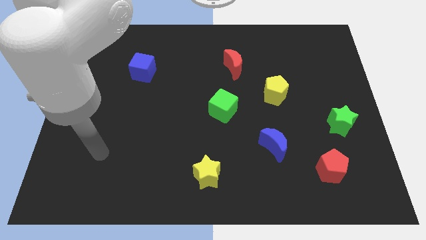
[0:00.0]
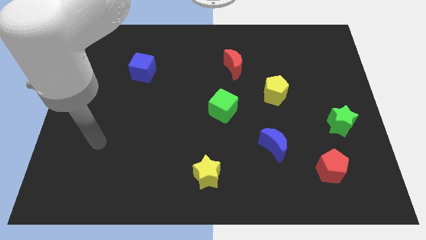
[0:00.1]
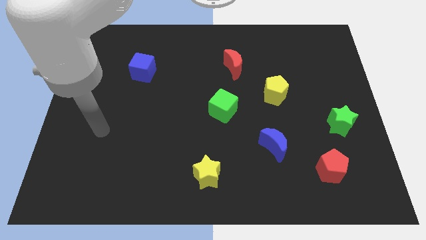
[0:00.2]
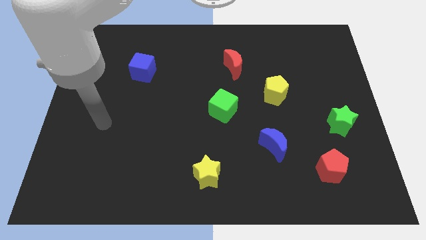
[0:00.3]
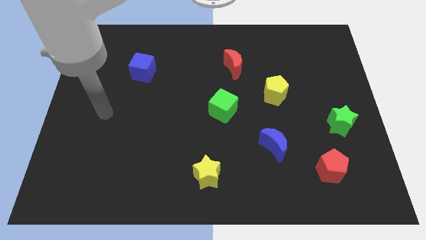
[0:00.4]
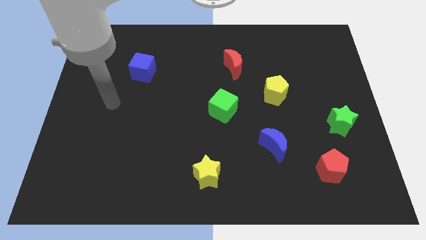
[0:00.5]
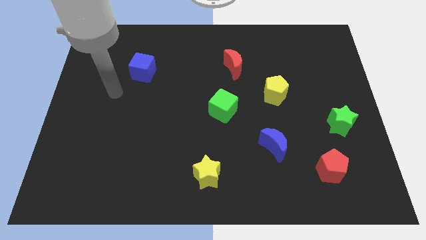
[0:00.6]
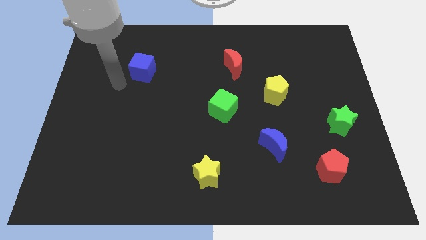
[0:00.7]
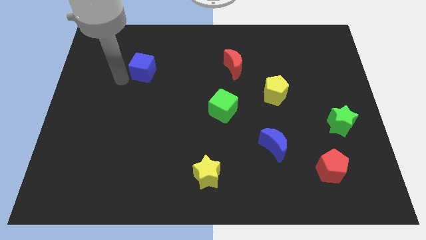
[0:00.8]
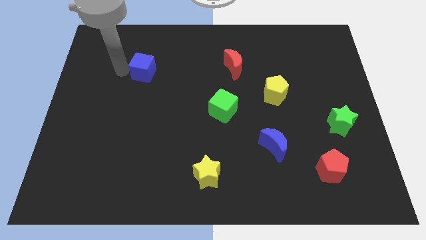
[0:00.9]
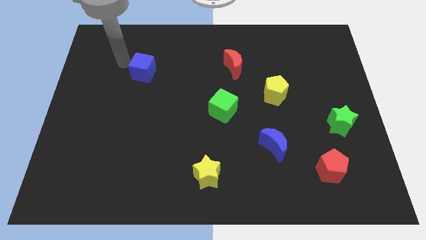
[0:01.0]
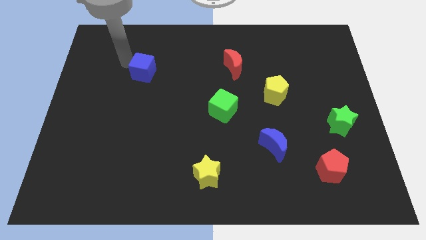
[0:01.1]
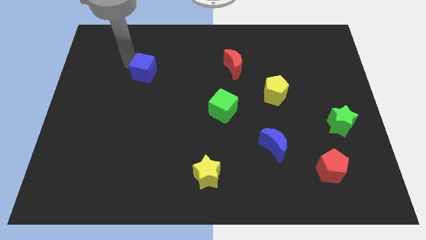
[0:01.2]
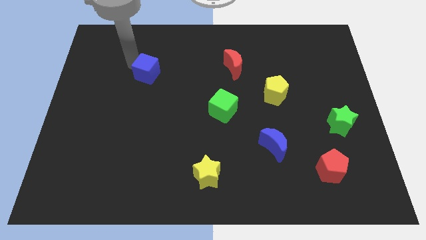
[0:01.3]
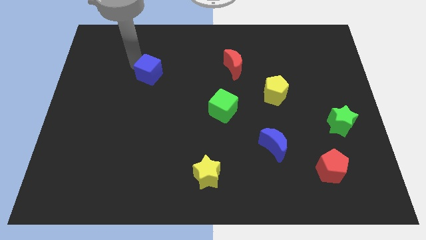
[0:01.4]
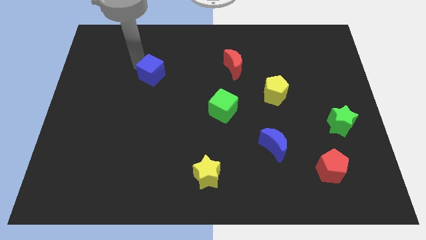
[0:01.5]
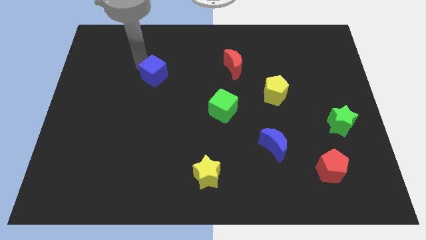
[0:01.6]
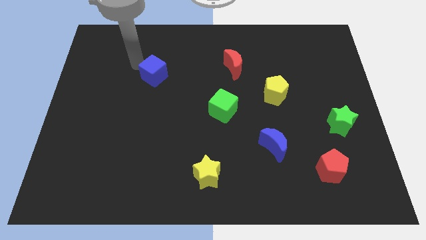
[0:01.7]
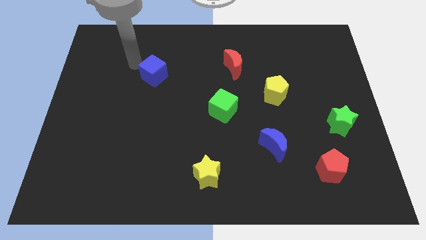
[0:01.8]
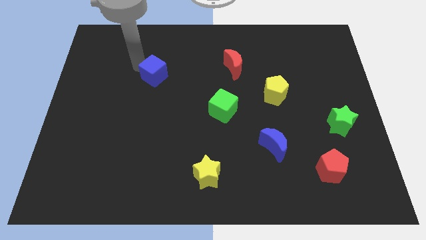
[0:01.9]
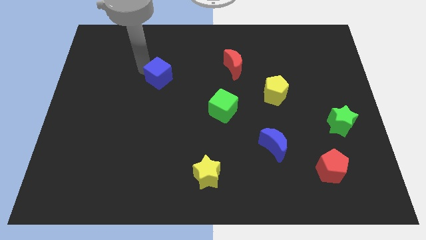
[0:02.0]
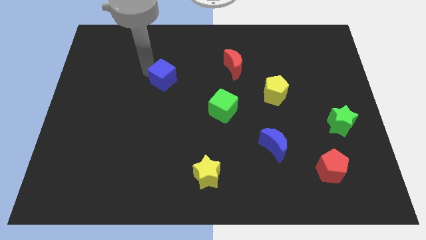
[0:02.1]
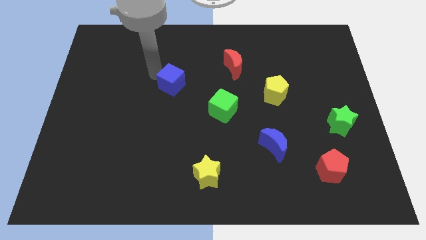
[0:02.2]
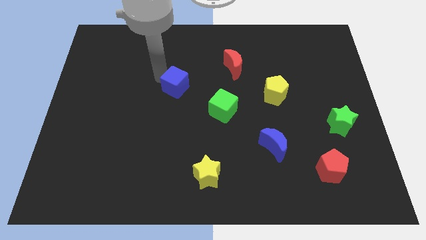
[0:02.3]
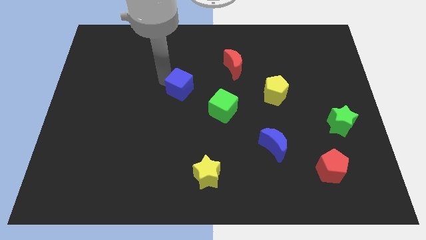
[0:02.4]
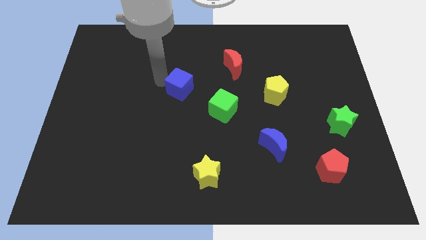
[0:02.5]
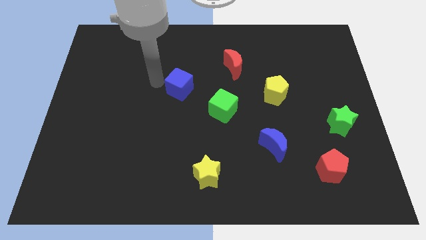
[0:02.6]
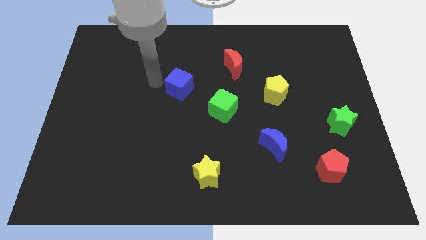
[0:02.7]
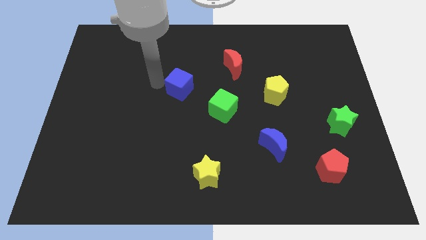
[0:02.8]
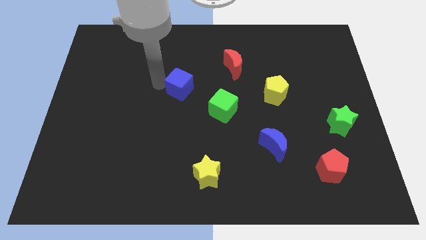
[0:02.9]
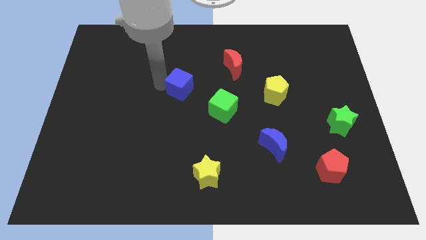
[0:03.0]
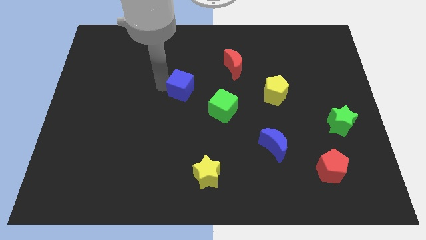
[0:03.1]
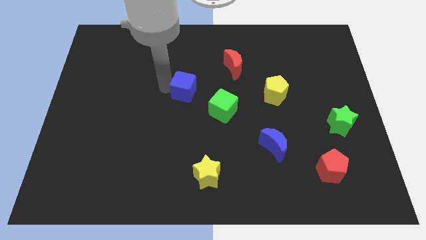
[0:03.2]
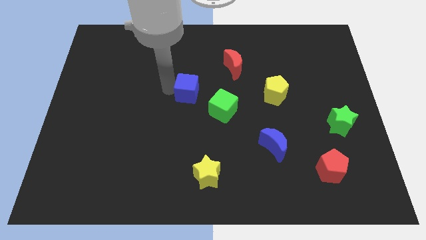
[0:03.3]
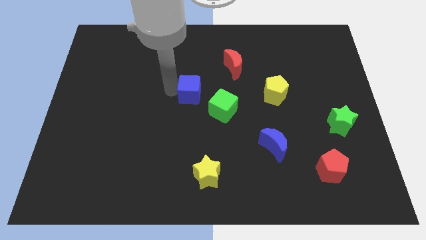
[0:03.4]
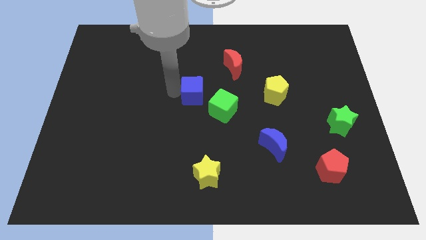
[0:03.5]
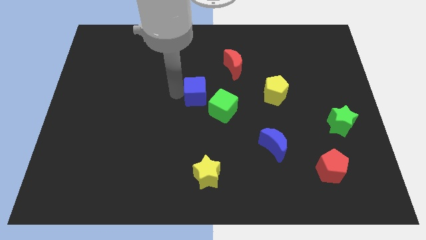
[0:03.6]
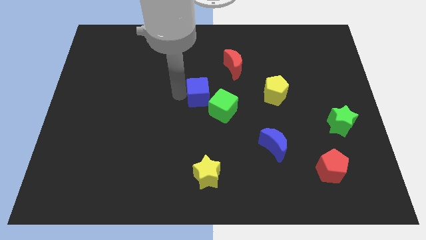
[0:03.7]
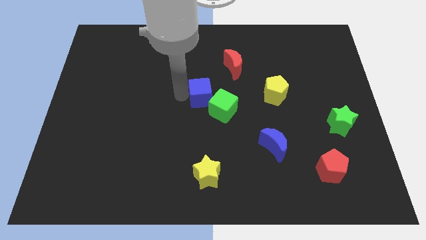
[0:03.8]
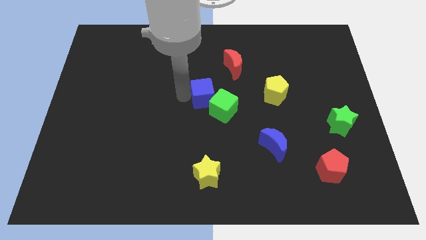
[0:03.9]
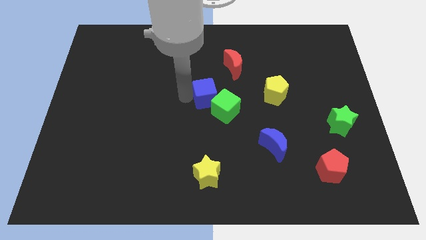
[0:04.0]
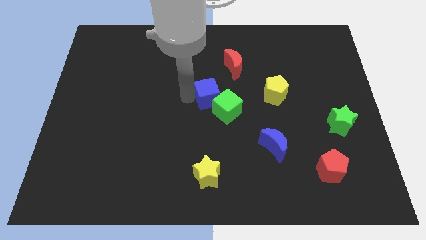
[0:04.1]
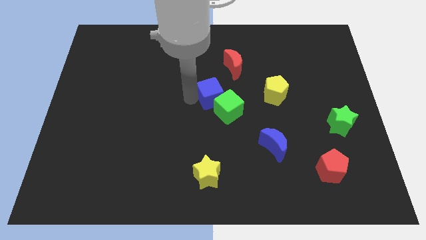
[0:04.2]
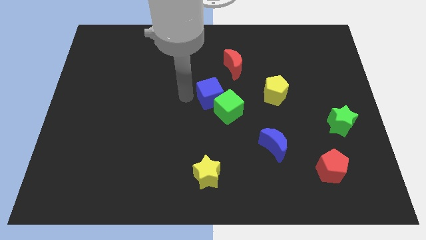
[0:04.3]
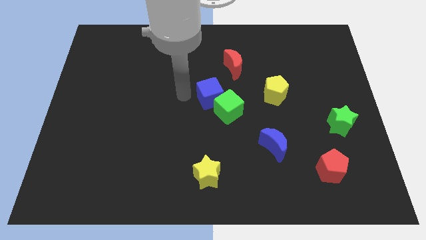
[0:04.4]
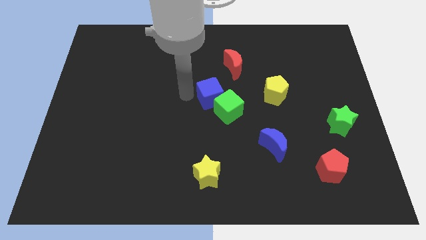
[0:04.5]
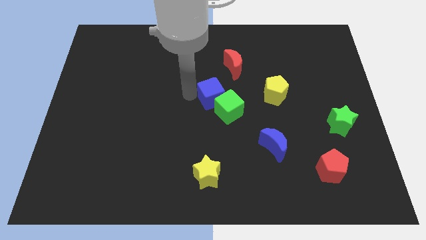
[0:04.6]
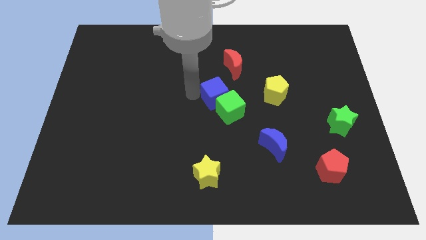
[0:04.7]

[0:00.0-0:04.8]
slide the blue cube below the red moon

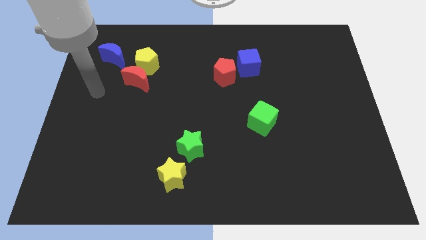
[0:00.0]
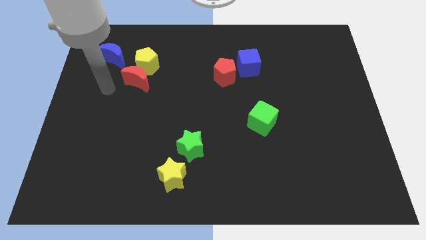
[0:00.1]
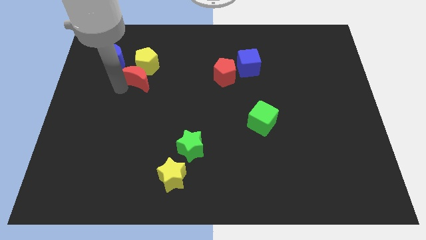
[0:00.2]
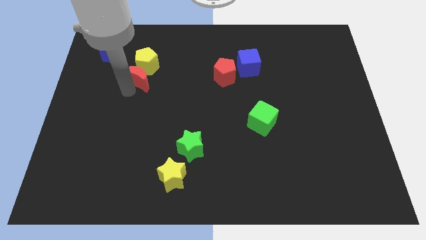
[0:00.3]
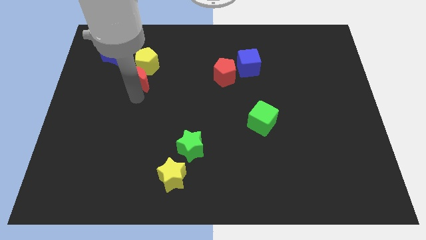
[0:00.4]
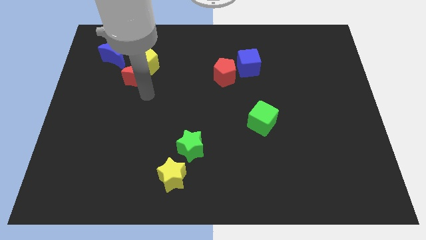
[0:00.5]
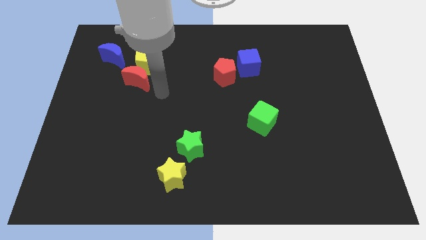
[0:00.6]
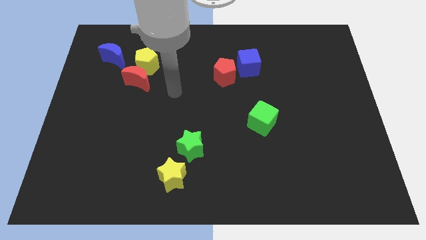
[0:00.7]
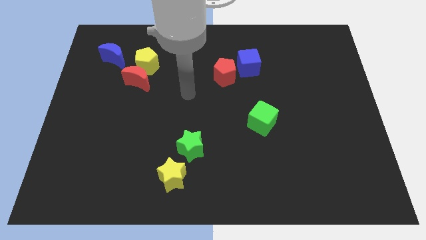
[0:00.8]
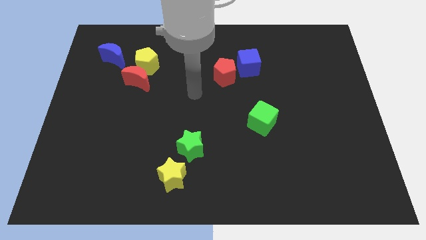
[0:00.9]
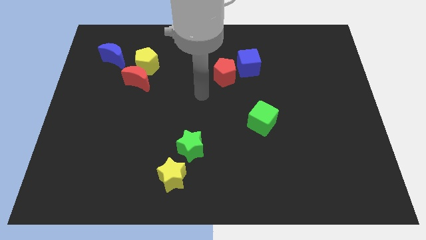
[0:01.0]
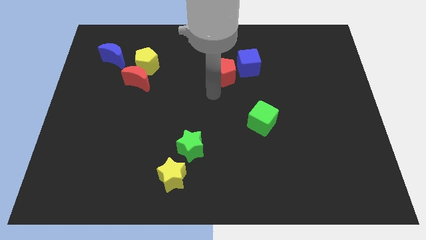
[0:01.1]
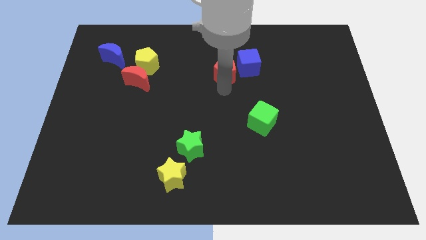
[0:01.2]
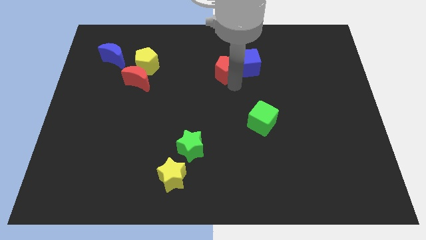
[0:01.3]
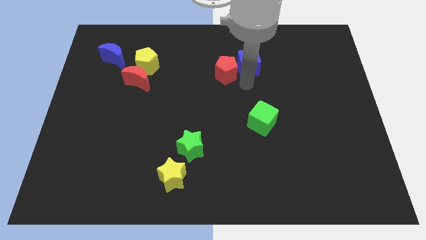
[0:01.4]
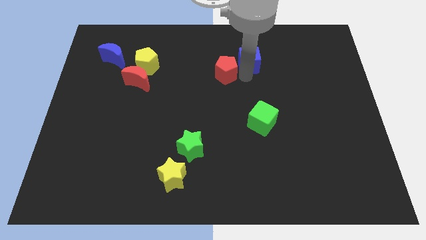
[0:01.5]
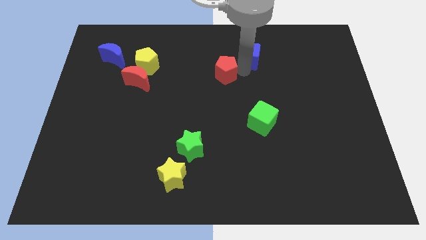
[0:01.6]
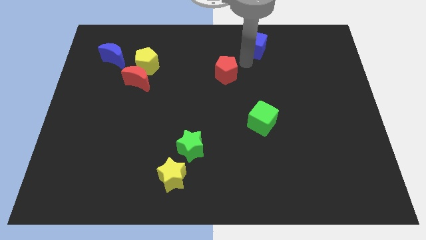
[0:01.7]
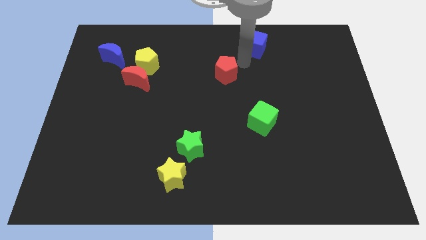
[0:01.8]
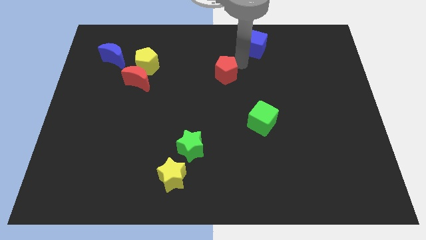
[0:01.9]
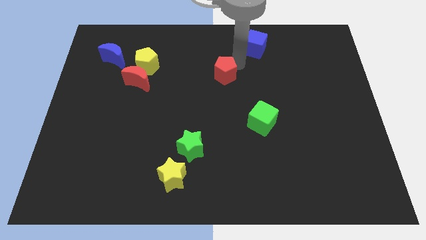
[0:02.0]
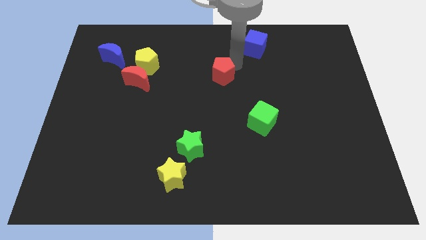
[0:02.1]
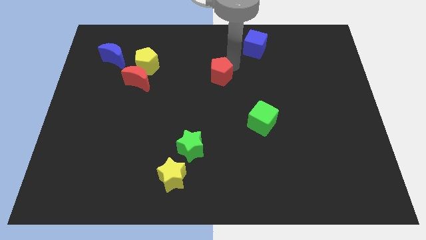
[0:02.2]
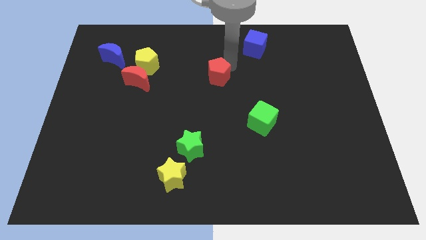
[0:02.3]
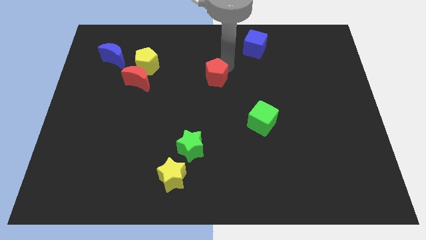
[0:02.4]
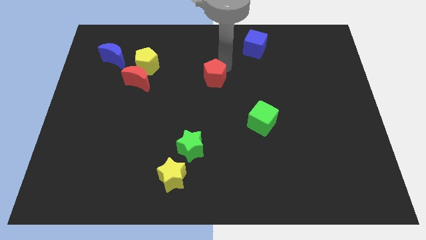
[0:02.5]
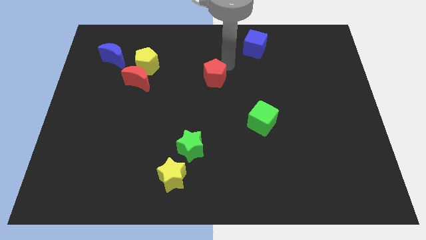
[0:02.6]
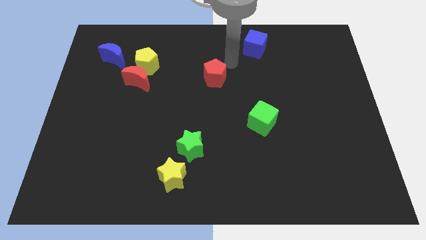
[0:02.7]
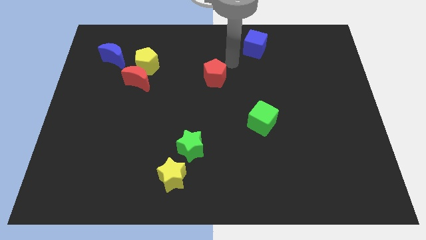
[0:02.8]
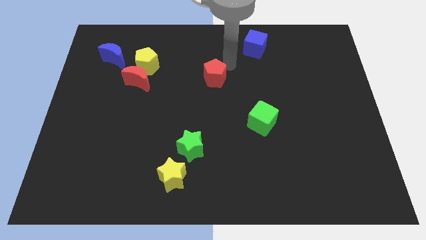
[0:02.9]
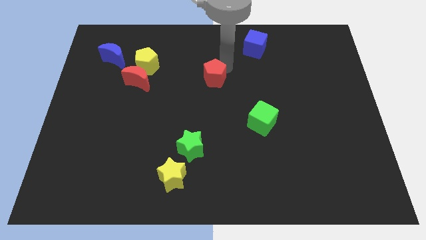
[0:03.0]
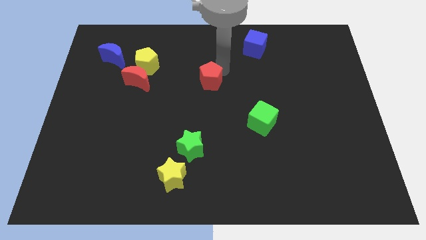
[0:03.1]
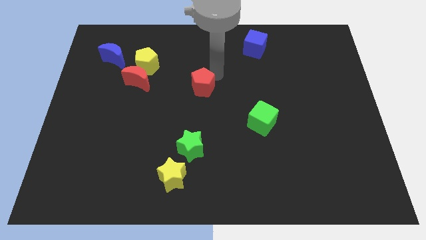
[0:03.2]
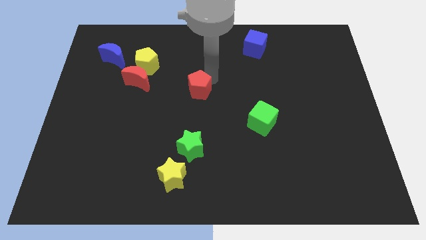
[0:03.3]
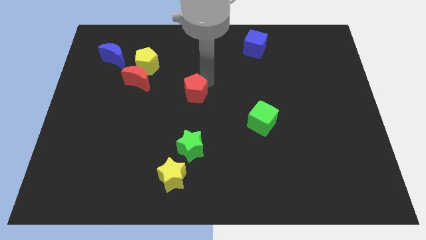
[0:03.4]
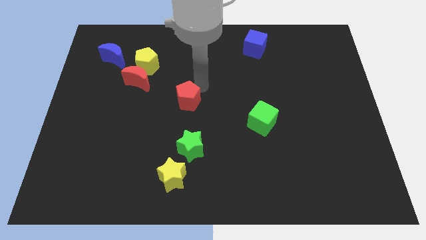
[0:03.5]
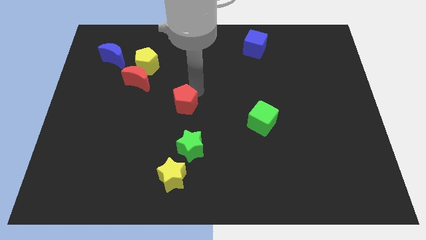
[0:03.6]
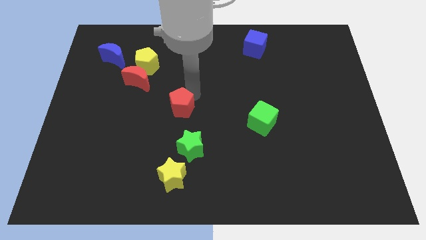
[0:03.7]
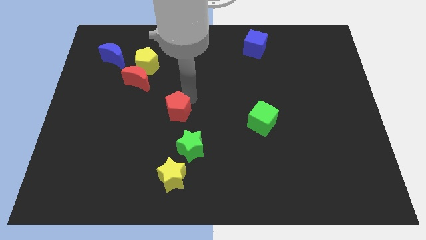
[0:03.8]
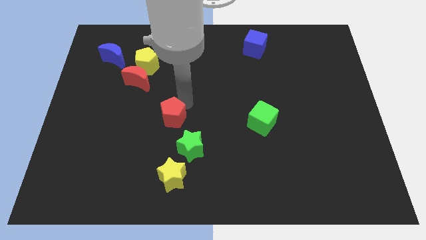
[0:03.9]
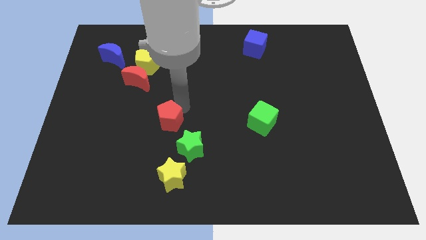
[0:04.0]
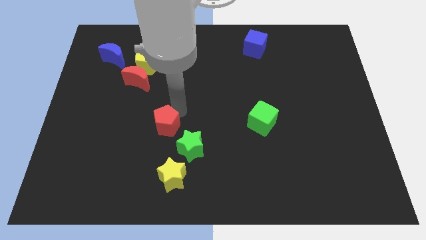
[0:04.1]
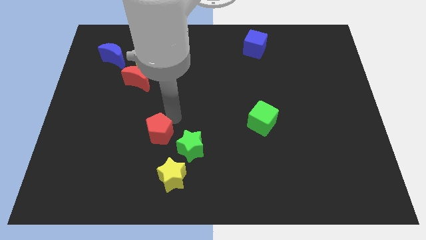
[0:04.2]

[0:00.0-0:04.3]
move the red pentagon to the left of the green star
